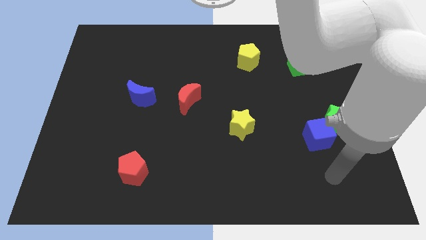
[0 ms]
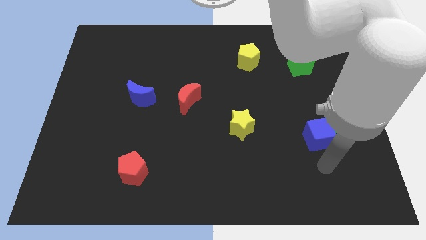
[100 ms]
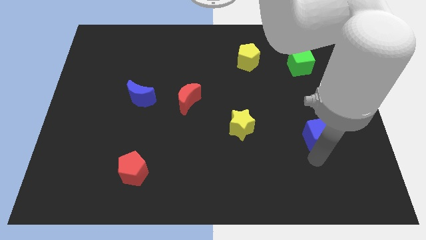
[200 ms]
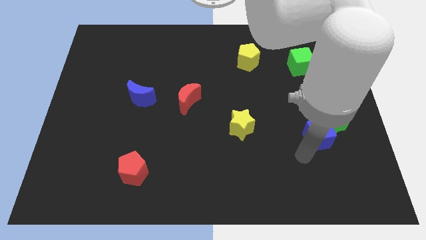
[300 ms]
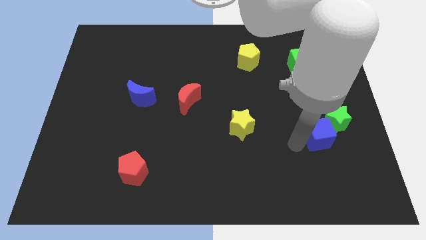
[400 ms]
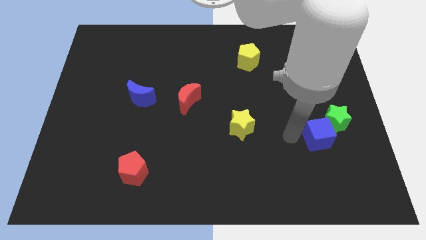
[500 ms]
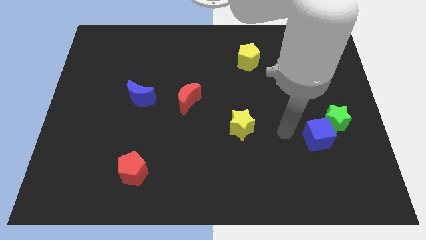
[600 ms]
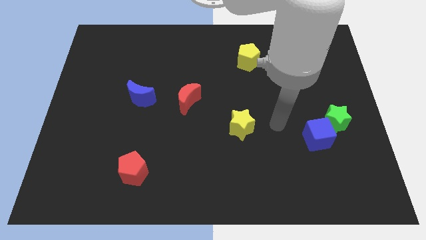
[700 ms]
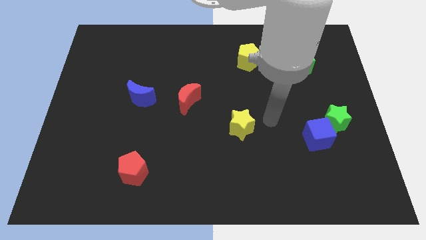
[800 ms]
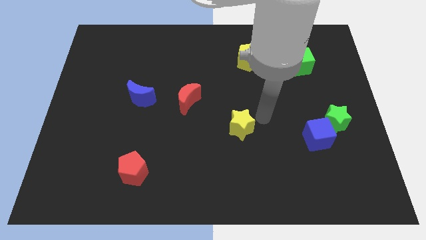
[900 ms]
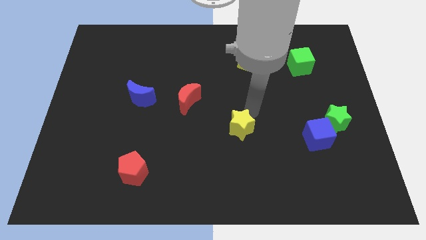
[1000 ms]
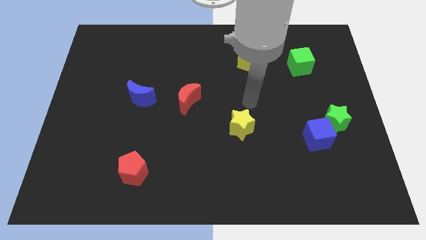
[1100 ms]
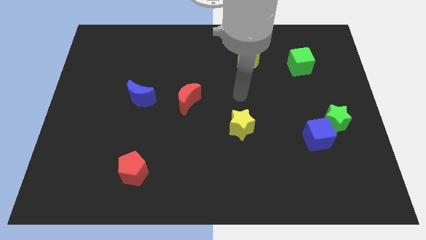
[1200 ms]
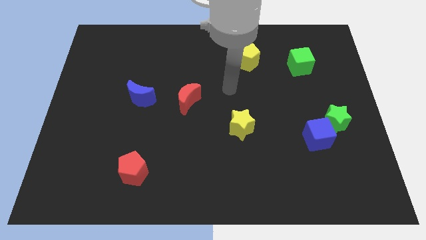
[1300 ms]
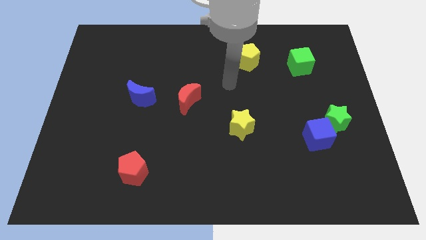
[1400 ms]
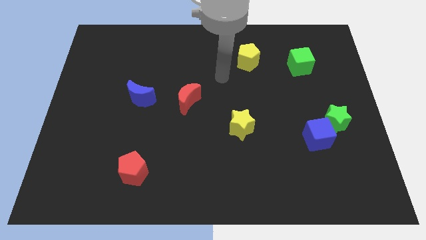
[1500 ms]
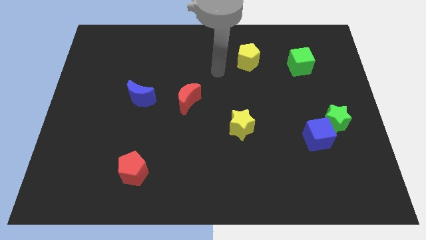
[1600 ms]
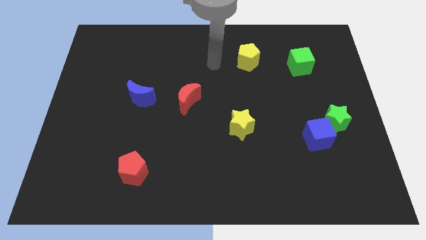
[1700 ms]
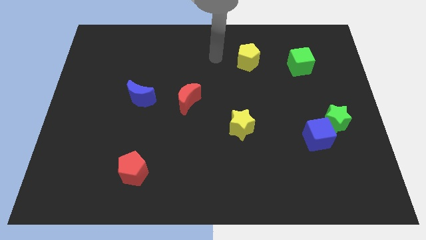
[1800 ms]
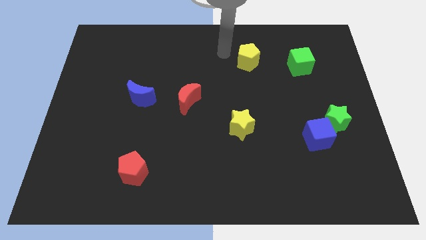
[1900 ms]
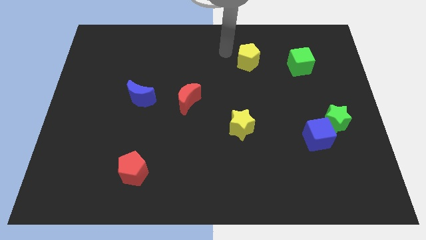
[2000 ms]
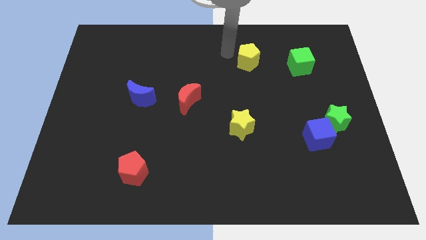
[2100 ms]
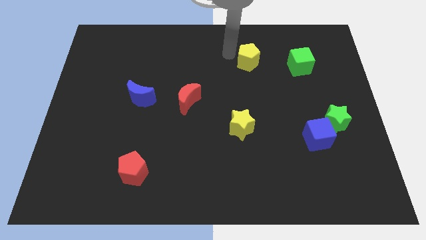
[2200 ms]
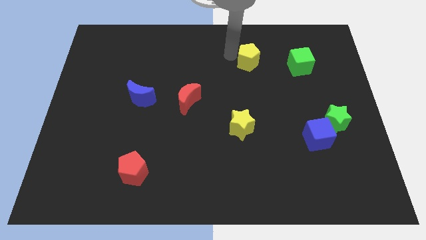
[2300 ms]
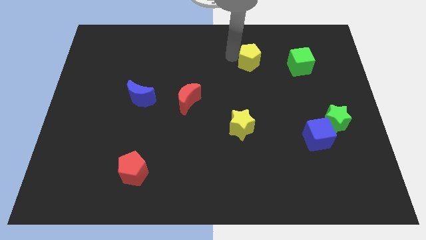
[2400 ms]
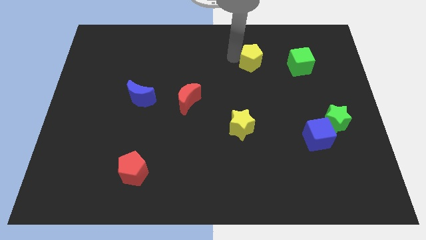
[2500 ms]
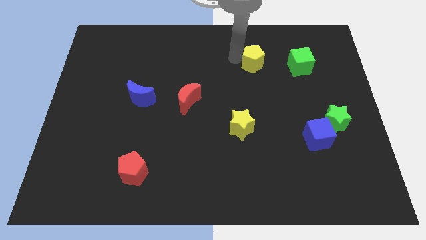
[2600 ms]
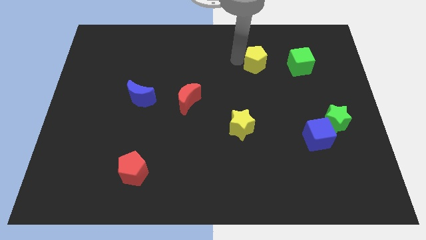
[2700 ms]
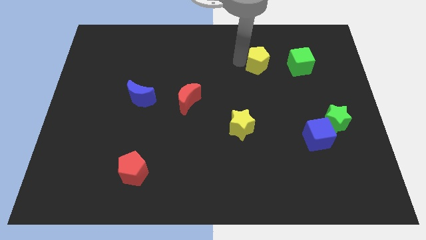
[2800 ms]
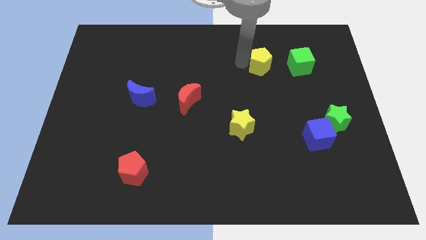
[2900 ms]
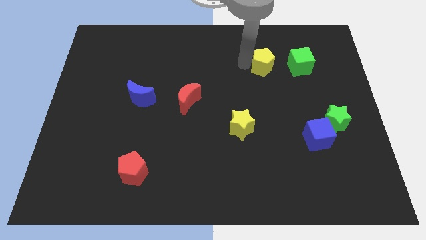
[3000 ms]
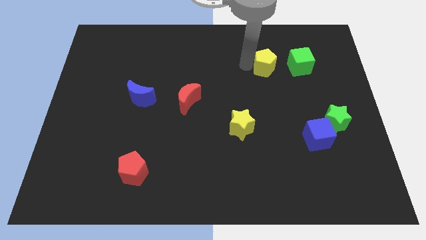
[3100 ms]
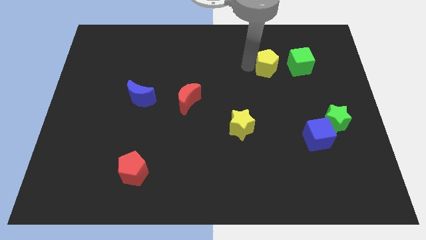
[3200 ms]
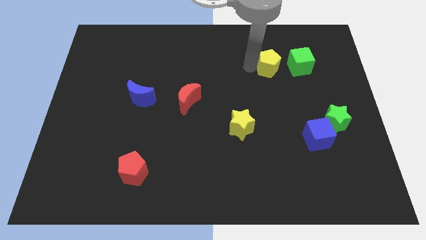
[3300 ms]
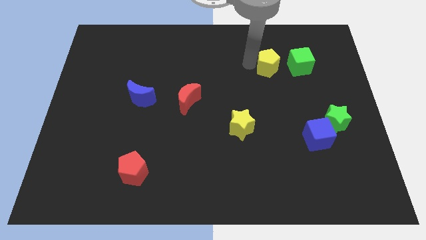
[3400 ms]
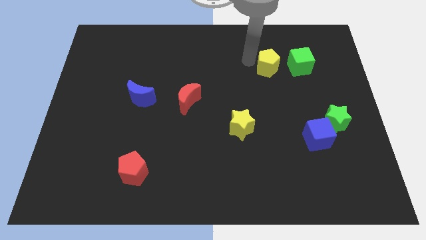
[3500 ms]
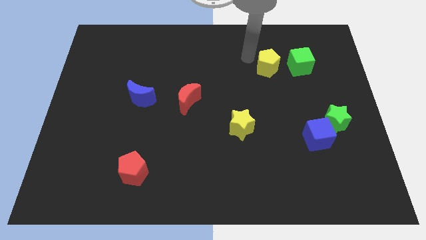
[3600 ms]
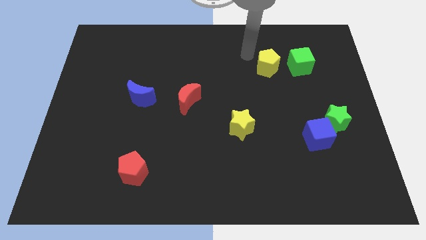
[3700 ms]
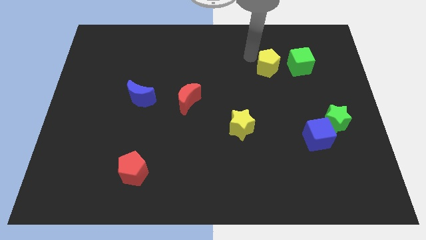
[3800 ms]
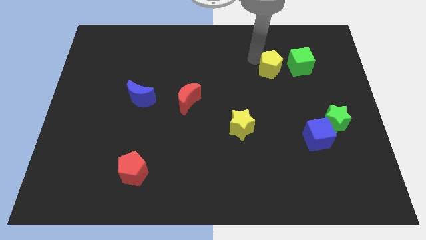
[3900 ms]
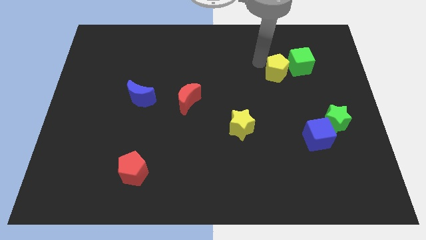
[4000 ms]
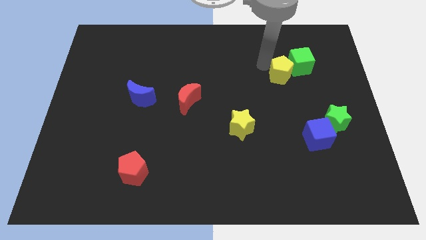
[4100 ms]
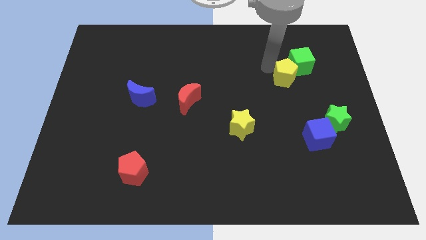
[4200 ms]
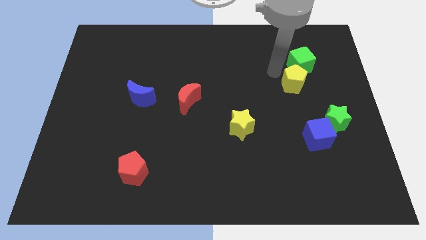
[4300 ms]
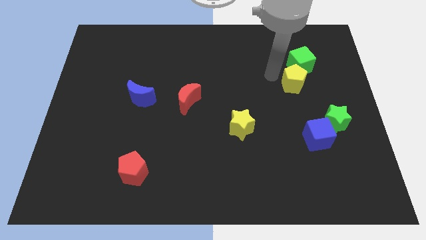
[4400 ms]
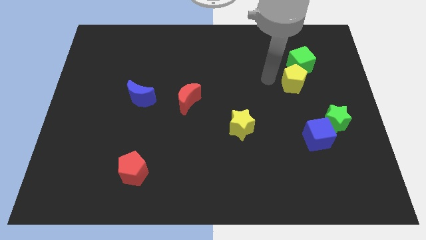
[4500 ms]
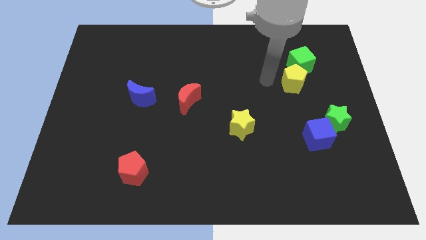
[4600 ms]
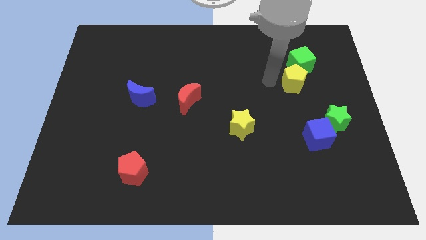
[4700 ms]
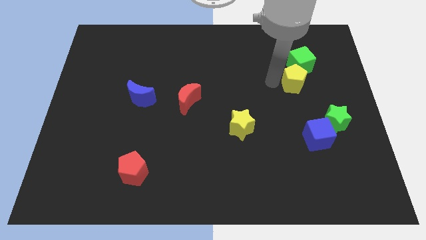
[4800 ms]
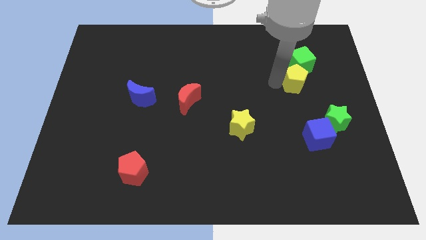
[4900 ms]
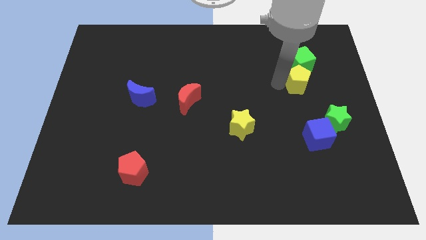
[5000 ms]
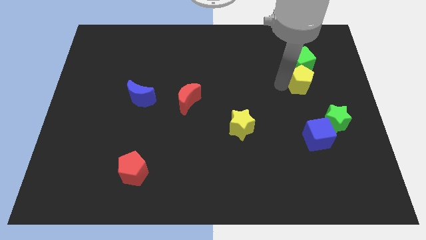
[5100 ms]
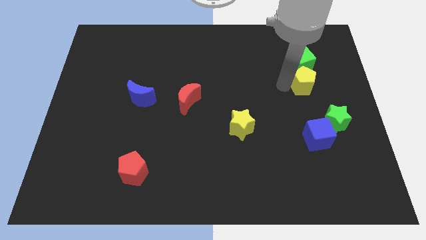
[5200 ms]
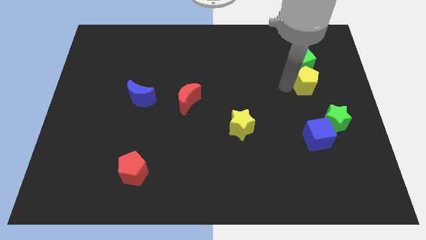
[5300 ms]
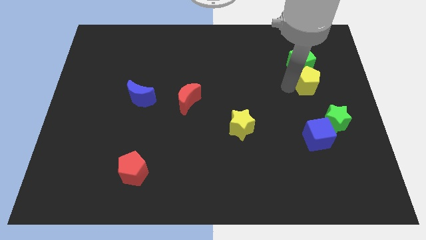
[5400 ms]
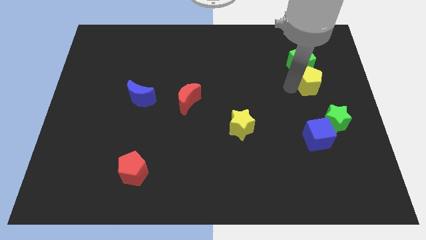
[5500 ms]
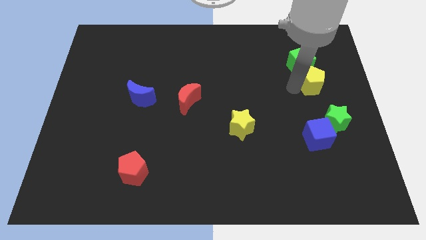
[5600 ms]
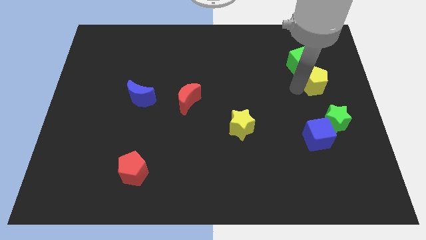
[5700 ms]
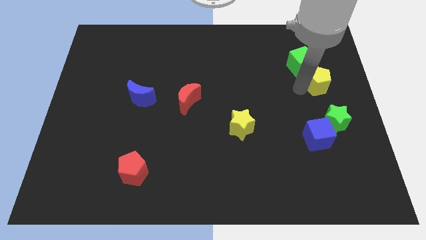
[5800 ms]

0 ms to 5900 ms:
slide the yellow pentagon to the center right
